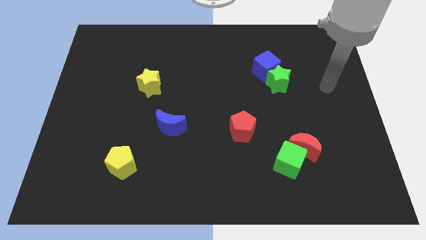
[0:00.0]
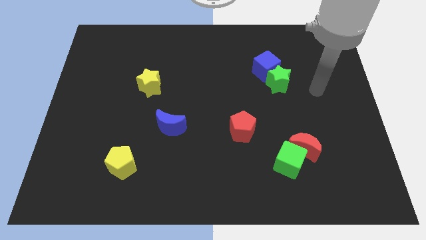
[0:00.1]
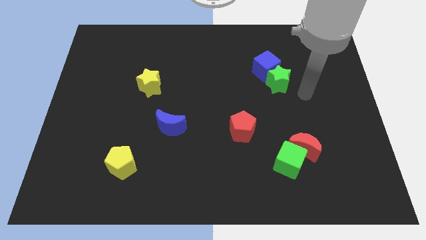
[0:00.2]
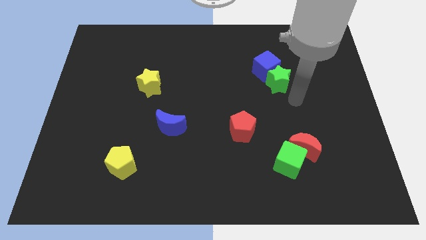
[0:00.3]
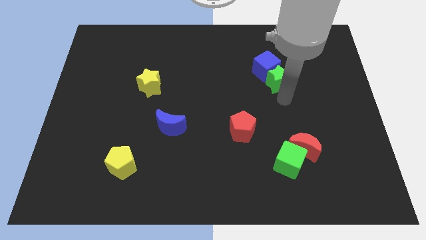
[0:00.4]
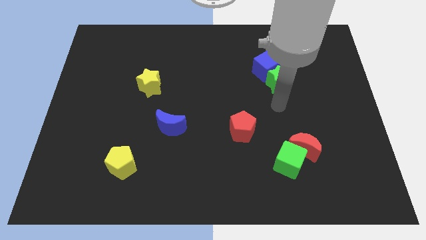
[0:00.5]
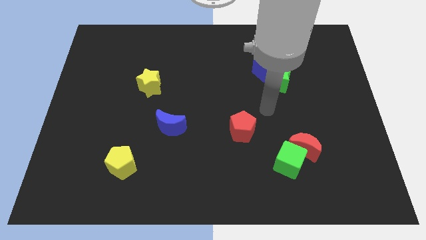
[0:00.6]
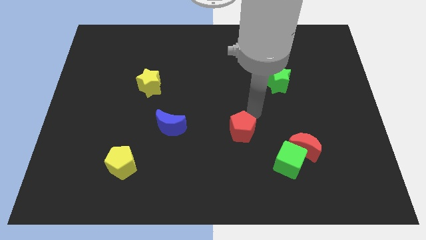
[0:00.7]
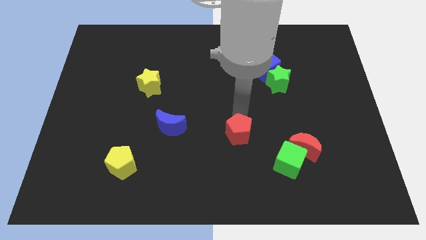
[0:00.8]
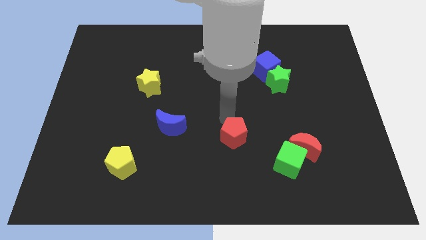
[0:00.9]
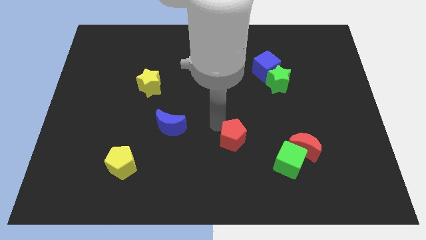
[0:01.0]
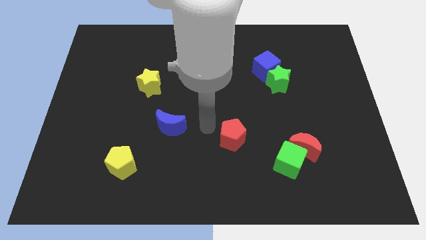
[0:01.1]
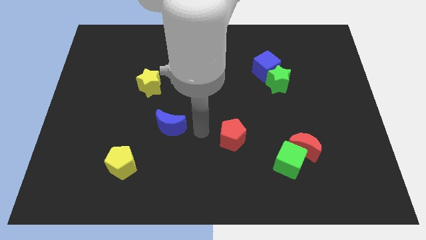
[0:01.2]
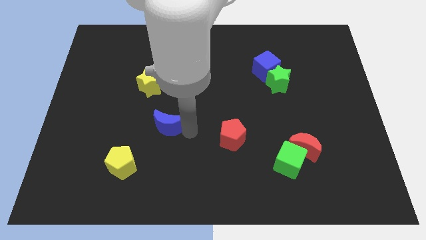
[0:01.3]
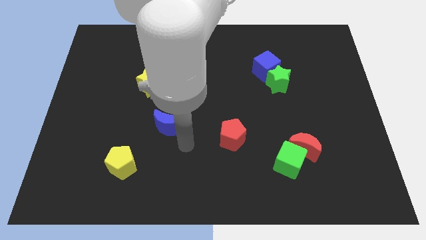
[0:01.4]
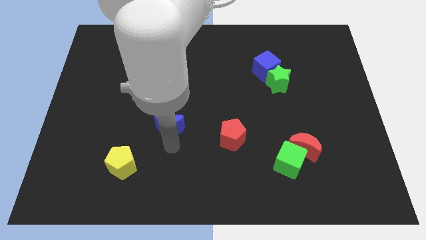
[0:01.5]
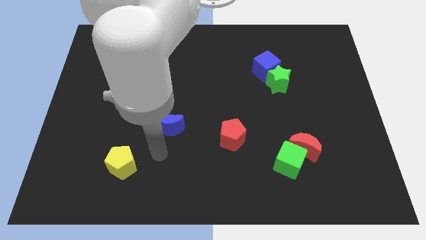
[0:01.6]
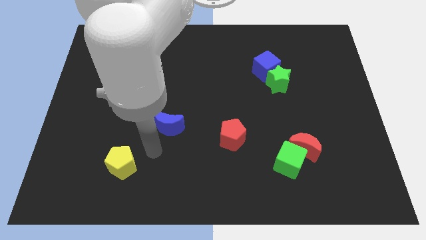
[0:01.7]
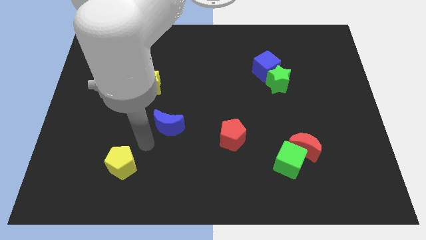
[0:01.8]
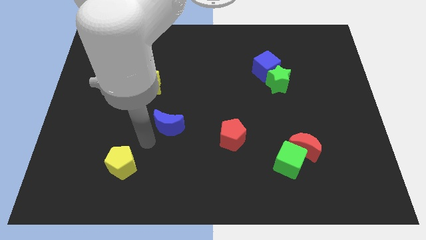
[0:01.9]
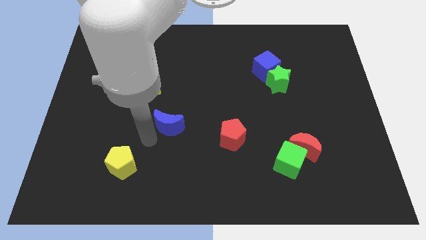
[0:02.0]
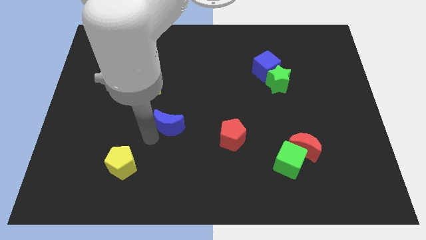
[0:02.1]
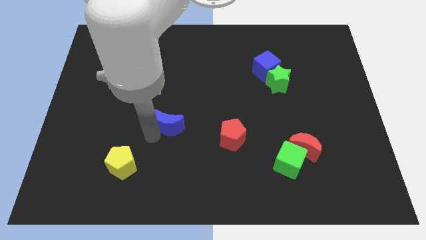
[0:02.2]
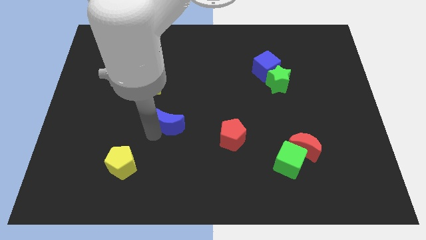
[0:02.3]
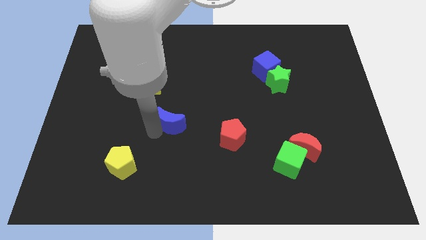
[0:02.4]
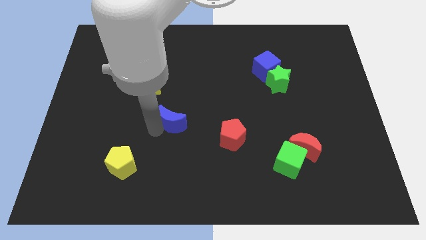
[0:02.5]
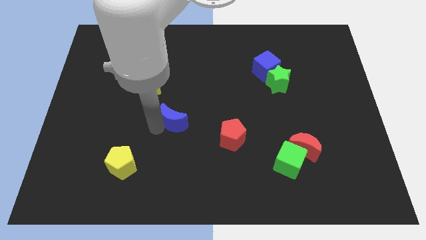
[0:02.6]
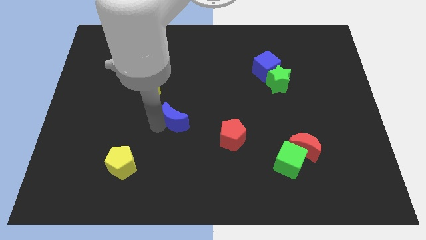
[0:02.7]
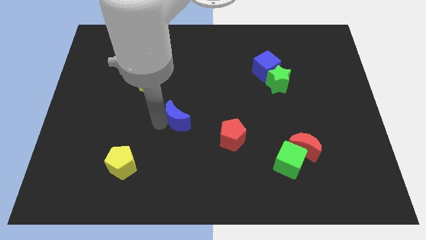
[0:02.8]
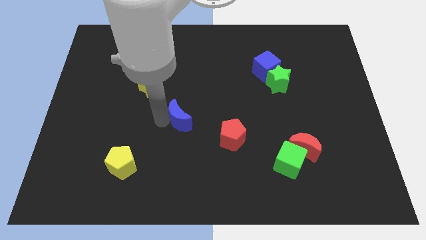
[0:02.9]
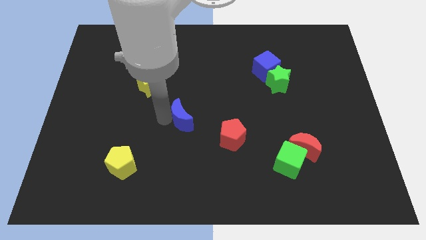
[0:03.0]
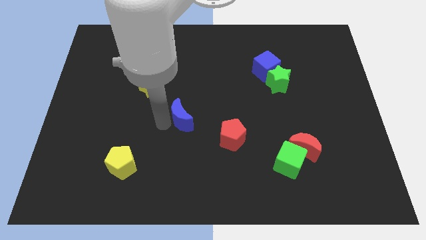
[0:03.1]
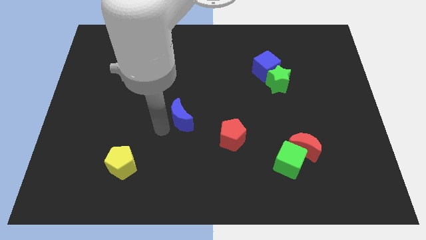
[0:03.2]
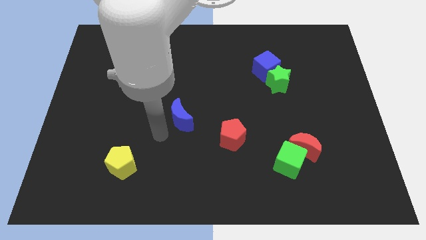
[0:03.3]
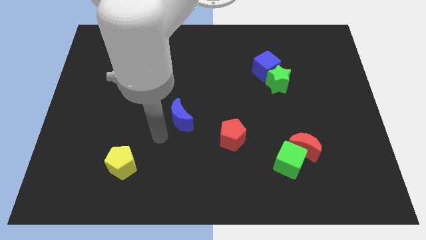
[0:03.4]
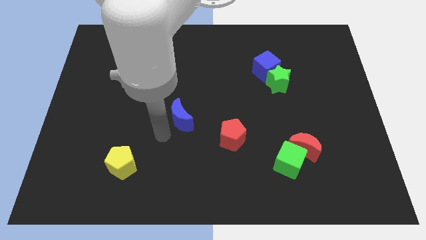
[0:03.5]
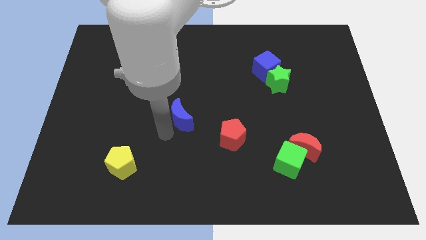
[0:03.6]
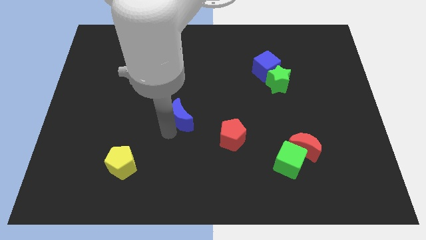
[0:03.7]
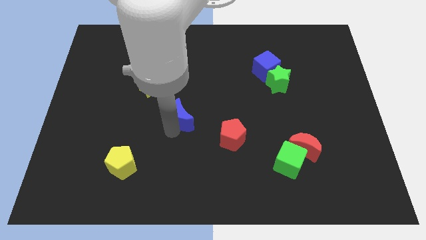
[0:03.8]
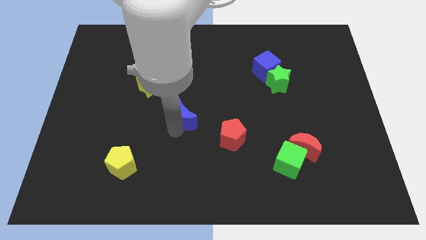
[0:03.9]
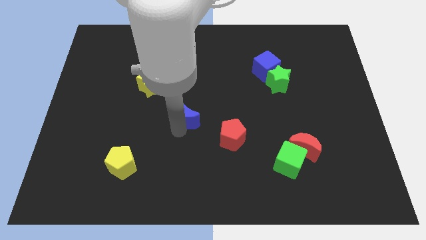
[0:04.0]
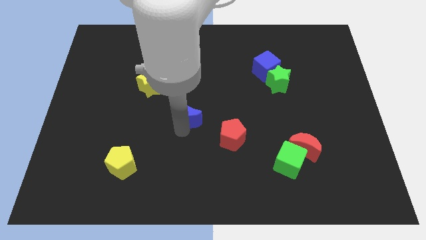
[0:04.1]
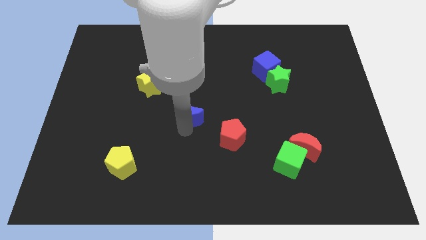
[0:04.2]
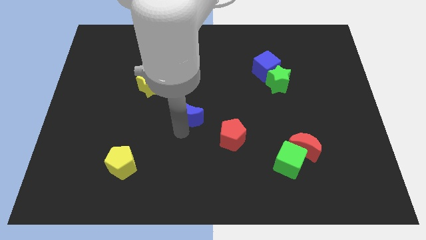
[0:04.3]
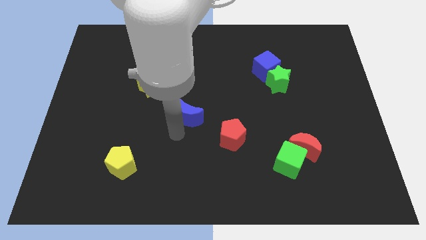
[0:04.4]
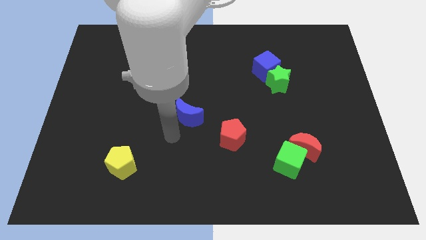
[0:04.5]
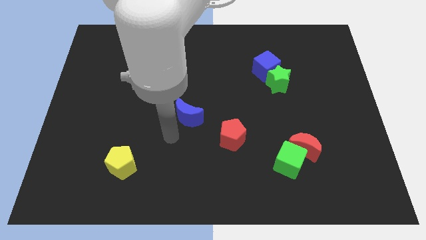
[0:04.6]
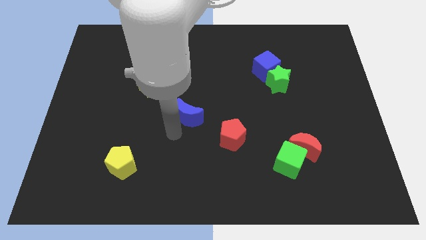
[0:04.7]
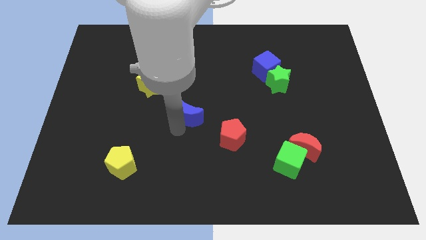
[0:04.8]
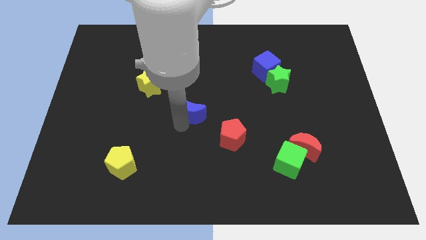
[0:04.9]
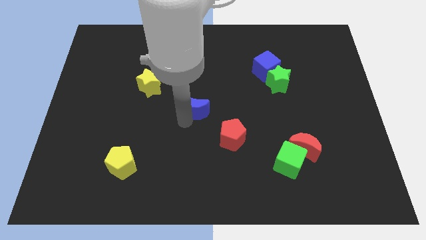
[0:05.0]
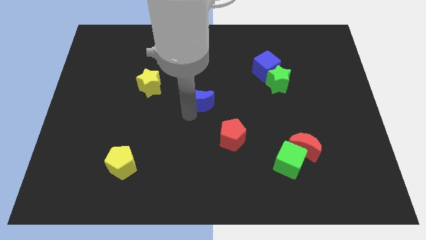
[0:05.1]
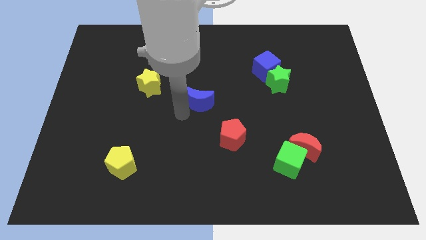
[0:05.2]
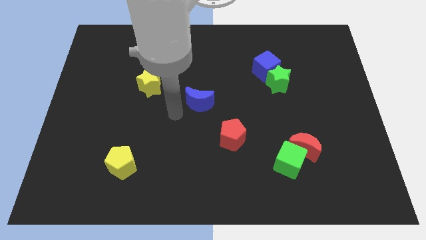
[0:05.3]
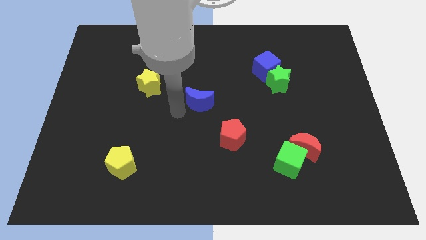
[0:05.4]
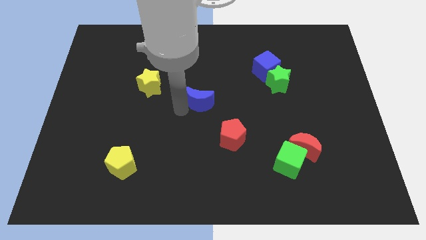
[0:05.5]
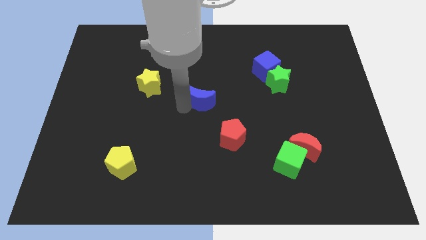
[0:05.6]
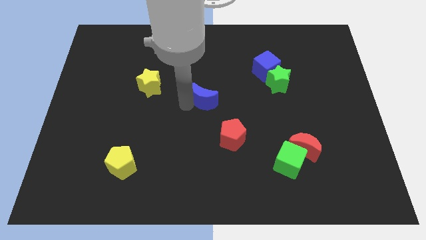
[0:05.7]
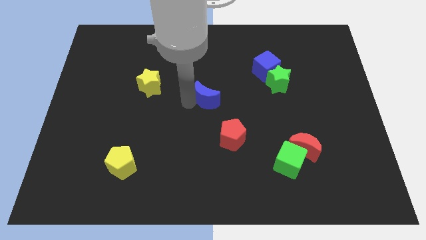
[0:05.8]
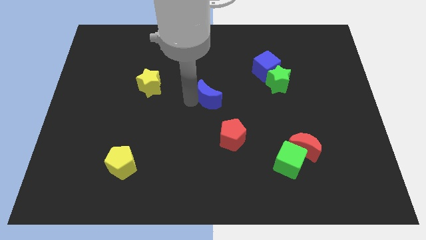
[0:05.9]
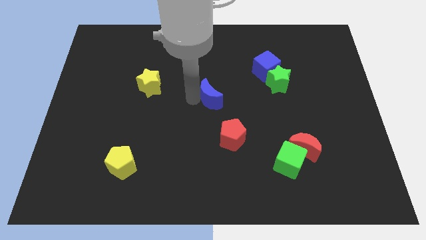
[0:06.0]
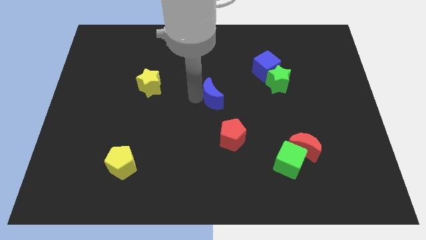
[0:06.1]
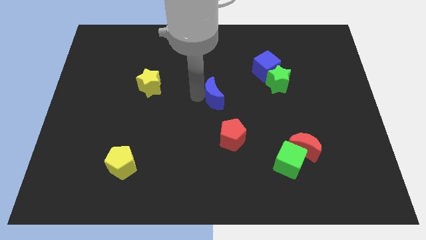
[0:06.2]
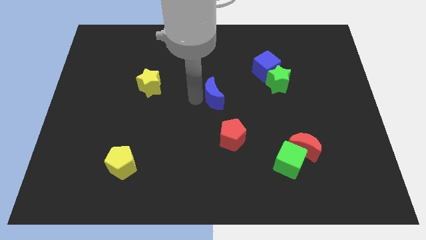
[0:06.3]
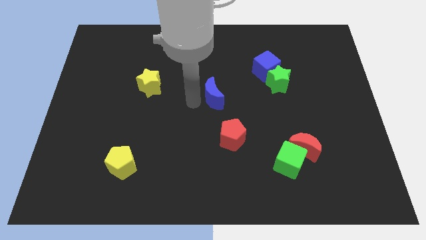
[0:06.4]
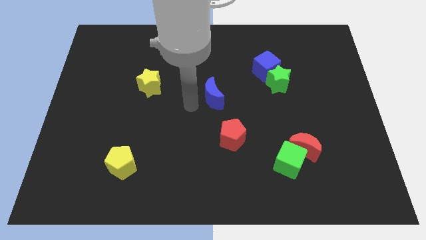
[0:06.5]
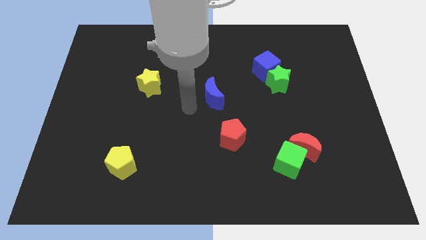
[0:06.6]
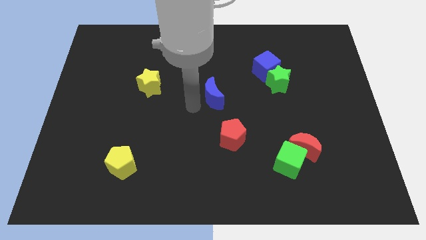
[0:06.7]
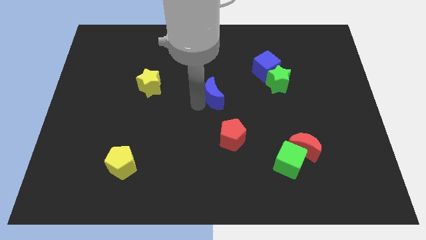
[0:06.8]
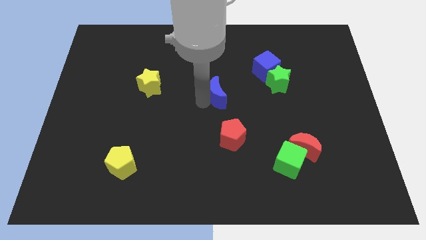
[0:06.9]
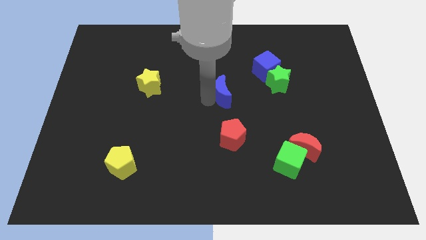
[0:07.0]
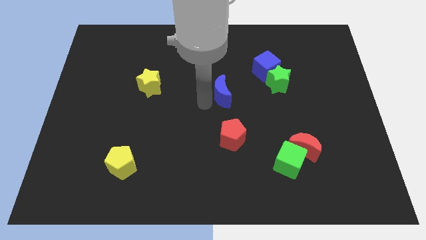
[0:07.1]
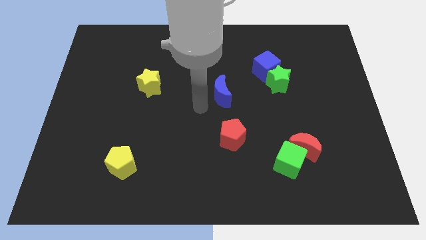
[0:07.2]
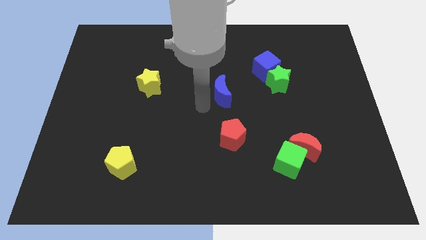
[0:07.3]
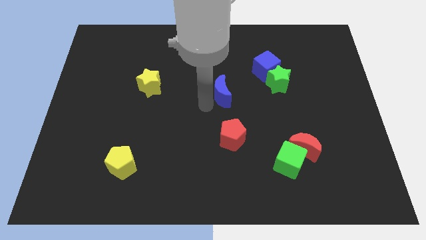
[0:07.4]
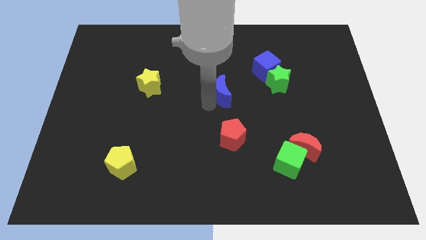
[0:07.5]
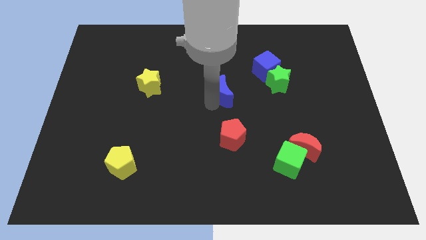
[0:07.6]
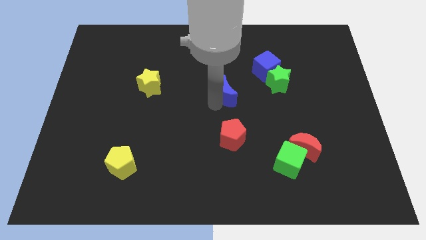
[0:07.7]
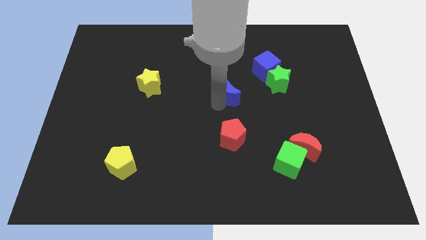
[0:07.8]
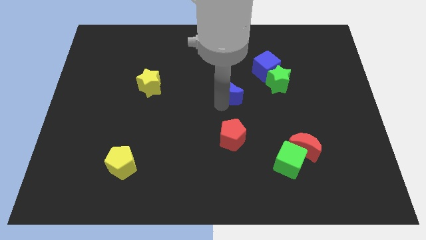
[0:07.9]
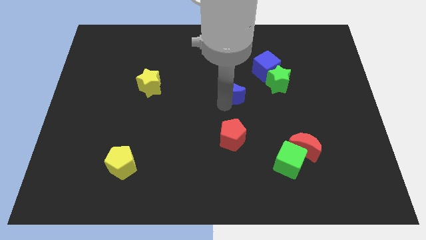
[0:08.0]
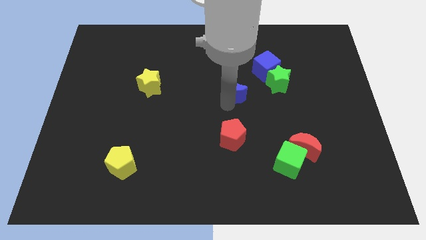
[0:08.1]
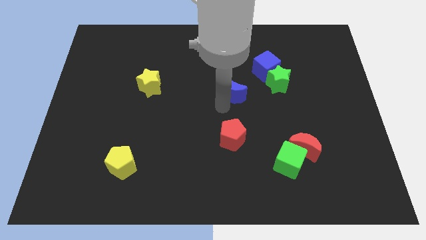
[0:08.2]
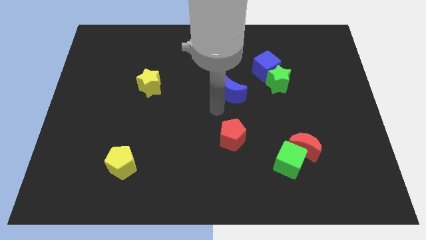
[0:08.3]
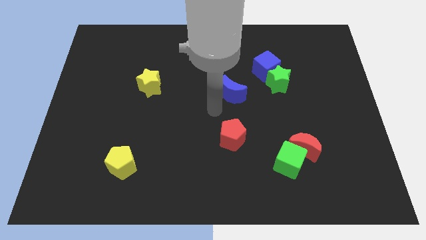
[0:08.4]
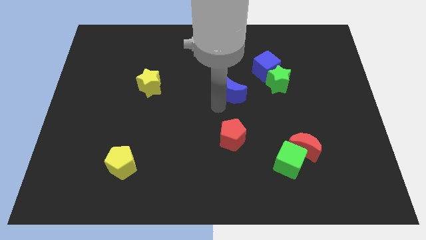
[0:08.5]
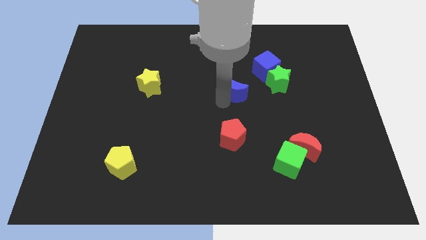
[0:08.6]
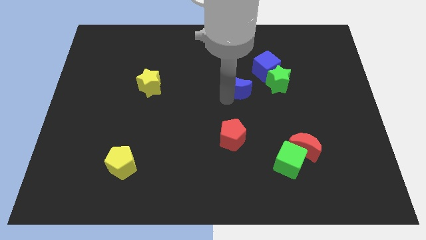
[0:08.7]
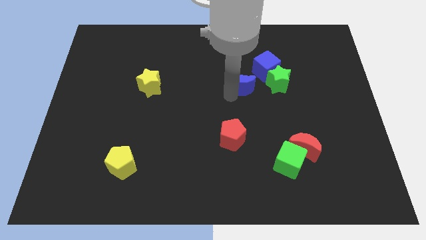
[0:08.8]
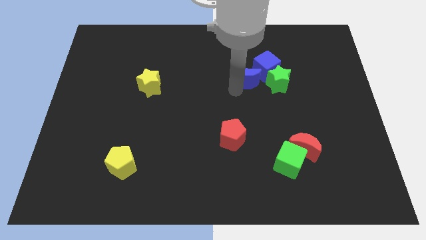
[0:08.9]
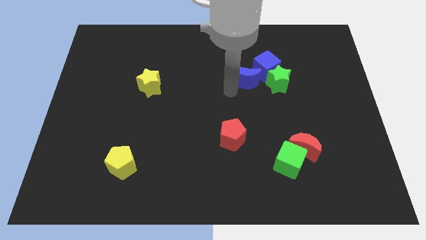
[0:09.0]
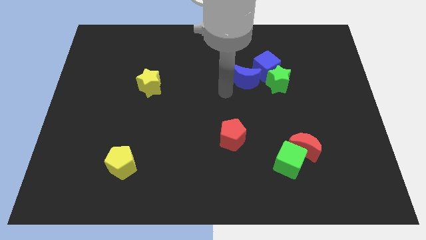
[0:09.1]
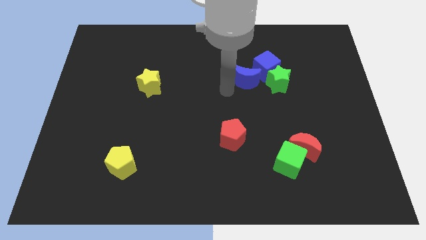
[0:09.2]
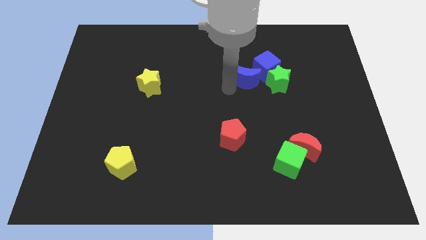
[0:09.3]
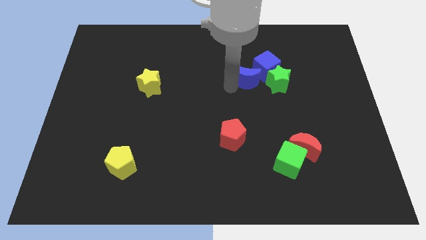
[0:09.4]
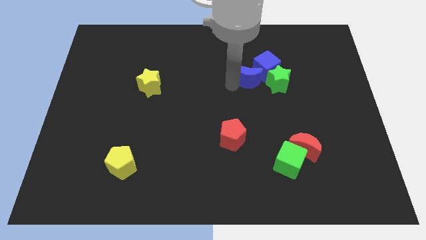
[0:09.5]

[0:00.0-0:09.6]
move the blue moon close to the blue cube
